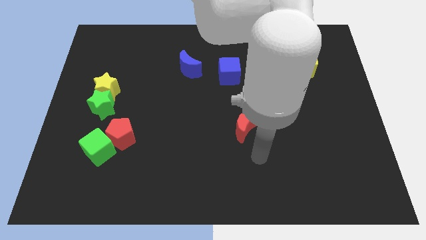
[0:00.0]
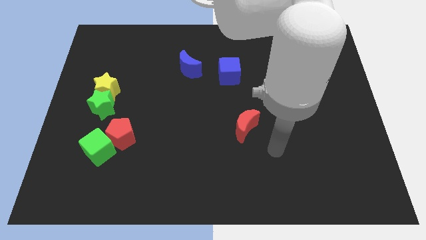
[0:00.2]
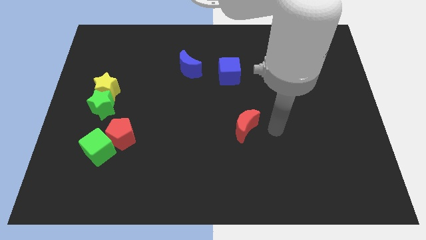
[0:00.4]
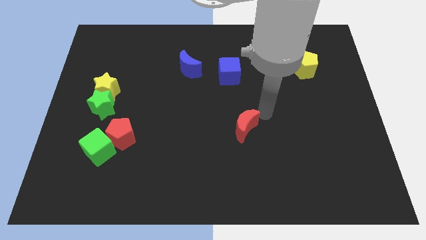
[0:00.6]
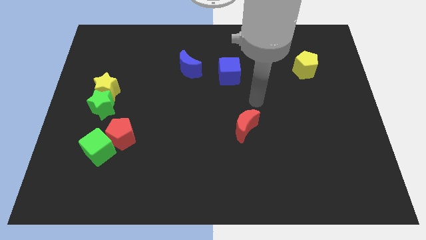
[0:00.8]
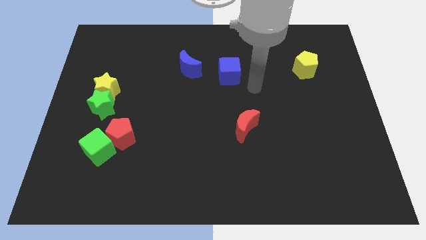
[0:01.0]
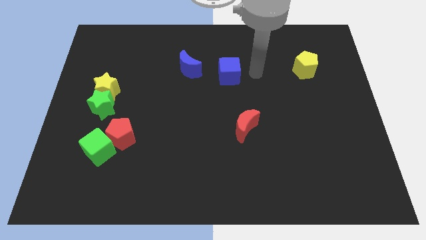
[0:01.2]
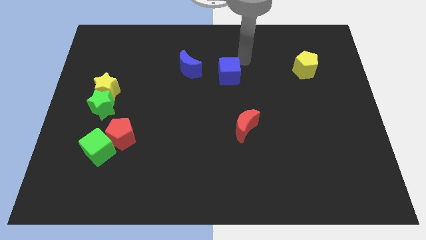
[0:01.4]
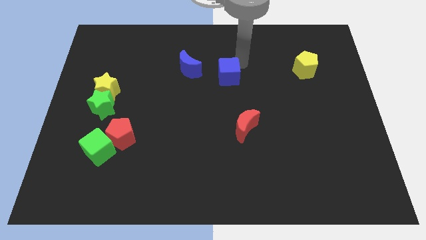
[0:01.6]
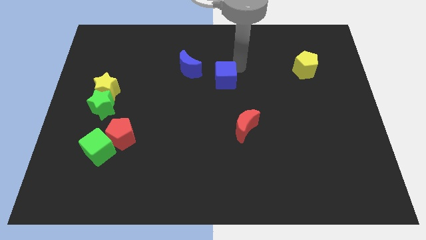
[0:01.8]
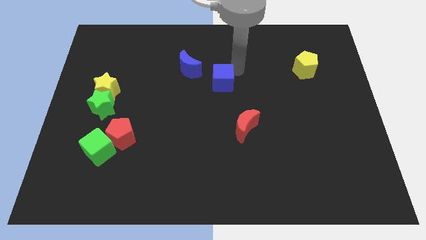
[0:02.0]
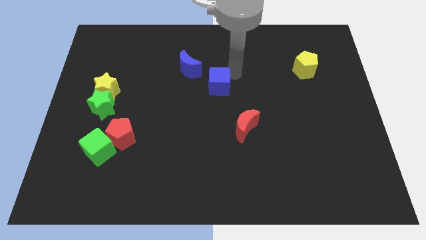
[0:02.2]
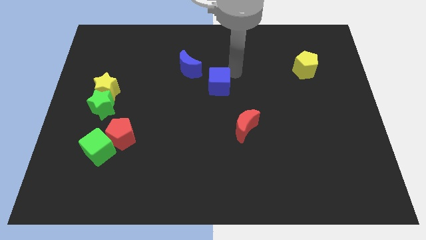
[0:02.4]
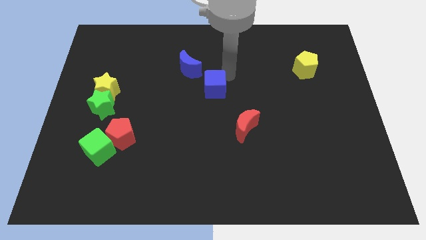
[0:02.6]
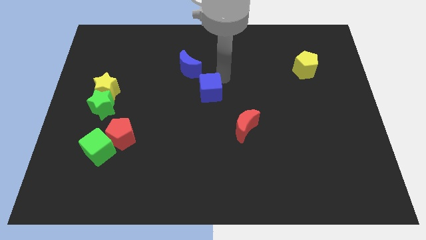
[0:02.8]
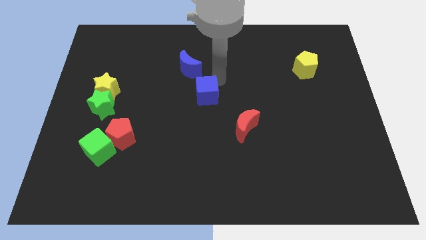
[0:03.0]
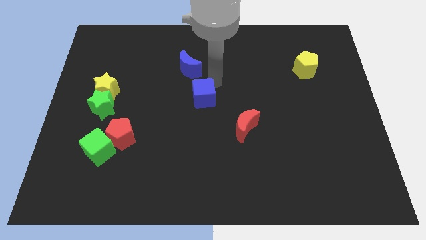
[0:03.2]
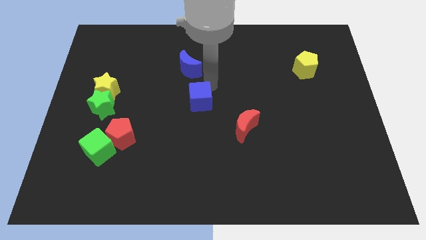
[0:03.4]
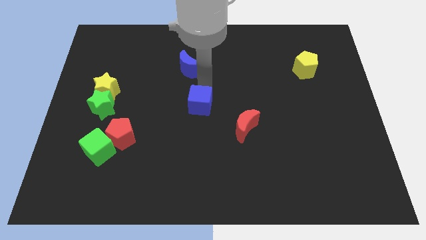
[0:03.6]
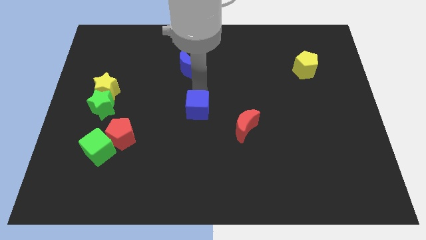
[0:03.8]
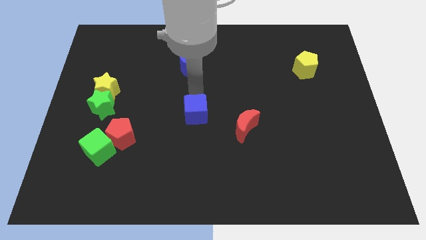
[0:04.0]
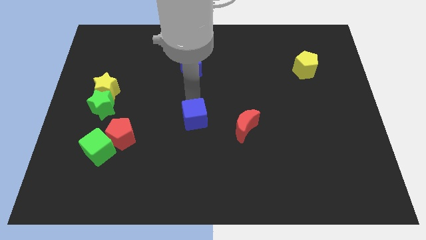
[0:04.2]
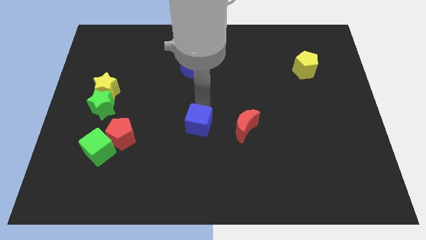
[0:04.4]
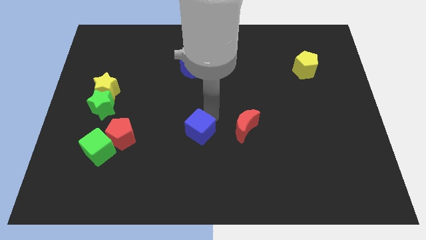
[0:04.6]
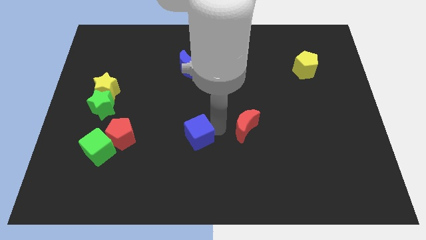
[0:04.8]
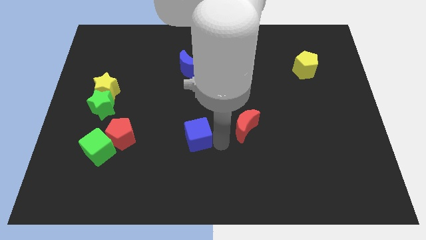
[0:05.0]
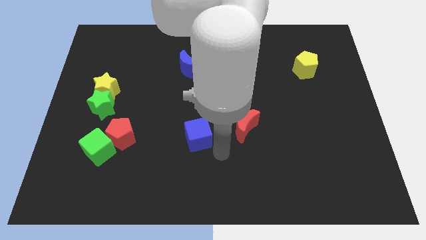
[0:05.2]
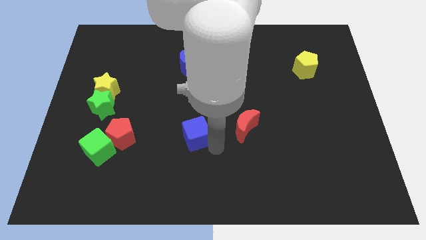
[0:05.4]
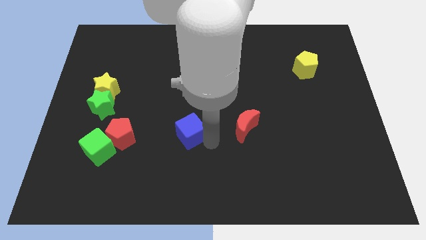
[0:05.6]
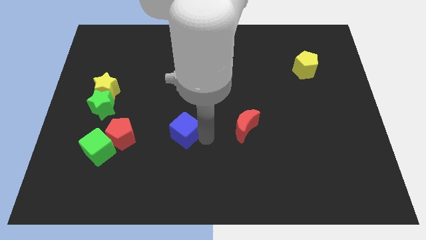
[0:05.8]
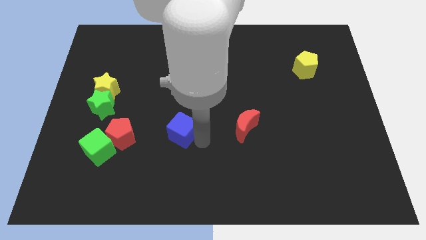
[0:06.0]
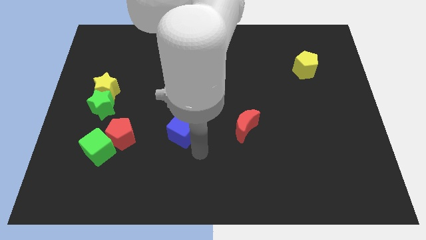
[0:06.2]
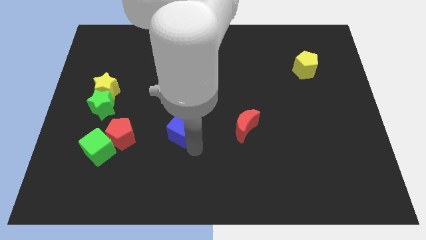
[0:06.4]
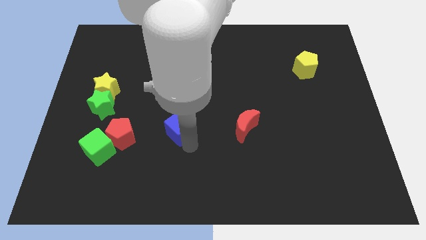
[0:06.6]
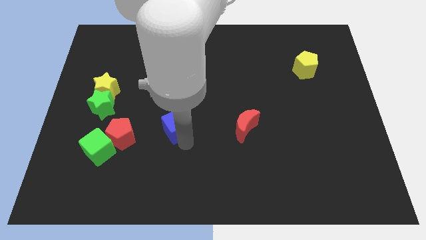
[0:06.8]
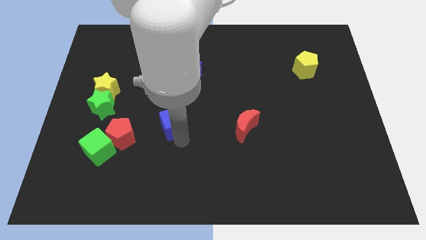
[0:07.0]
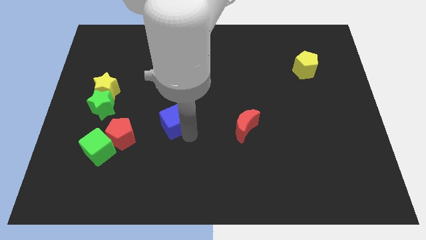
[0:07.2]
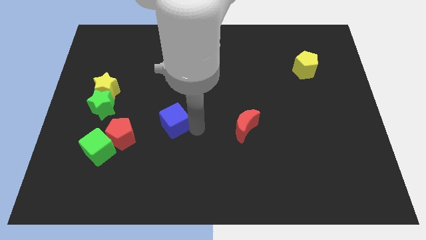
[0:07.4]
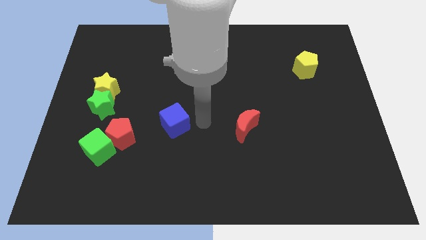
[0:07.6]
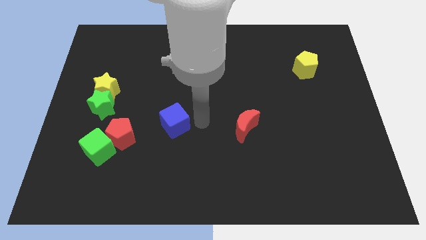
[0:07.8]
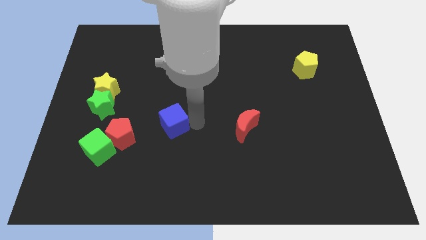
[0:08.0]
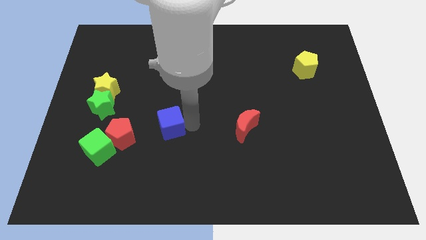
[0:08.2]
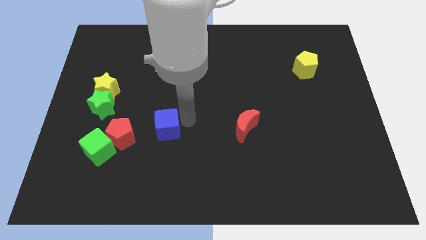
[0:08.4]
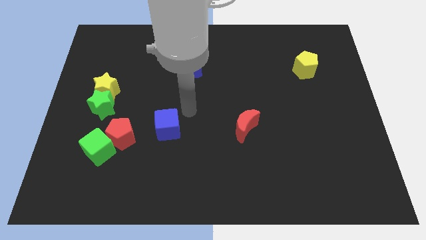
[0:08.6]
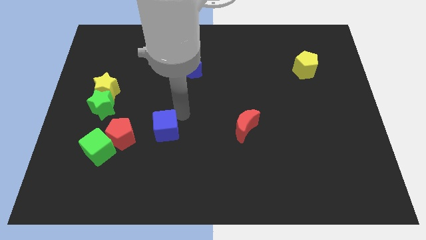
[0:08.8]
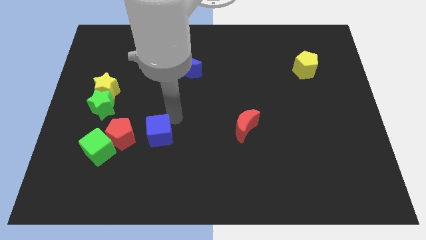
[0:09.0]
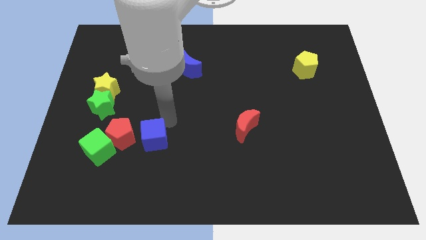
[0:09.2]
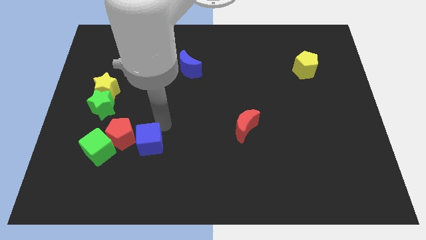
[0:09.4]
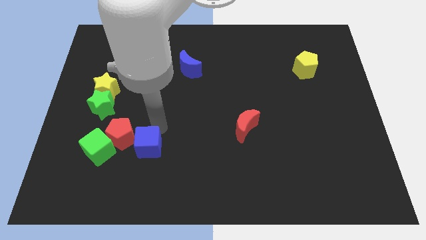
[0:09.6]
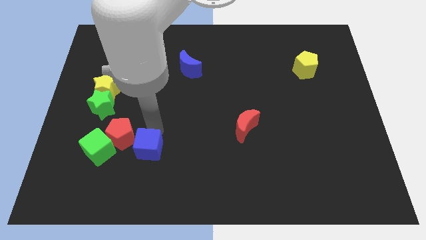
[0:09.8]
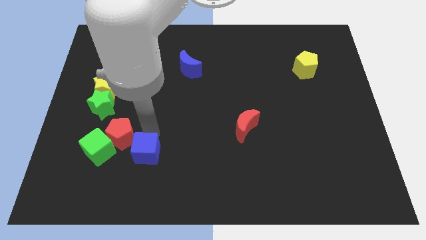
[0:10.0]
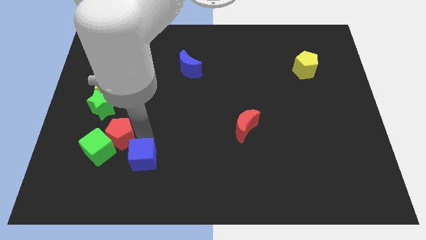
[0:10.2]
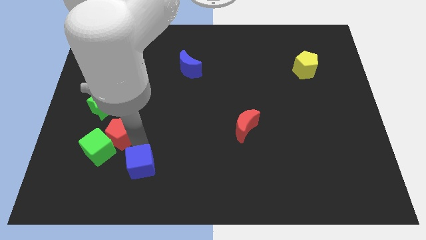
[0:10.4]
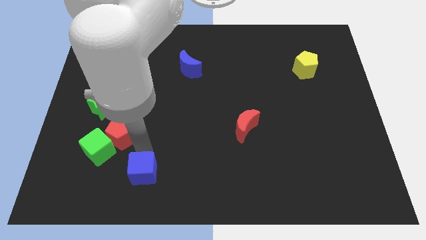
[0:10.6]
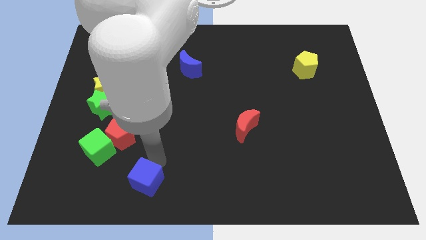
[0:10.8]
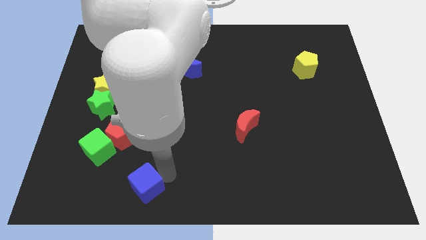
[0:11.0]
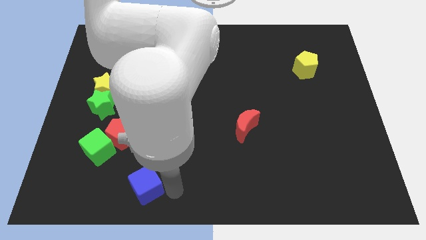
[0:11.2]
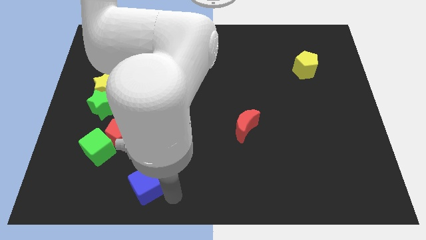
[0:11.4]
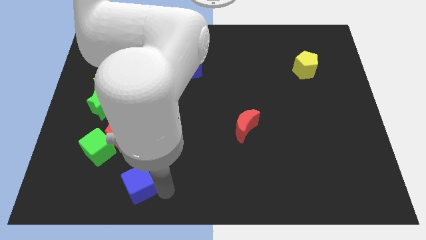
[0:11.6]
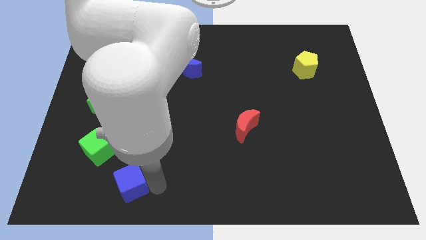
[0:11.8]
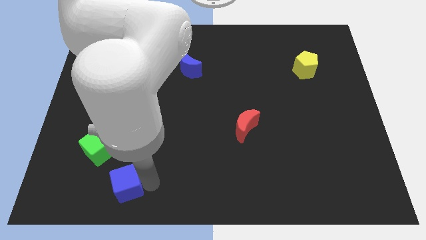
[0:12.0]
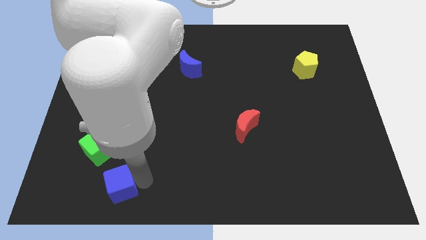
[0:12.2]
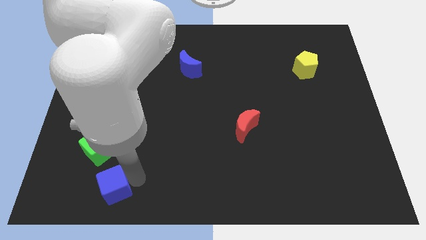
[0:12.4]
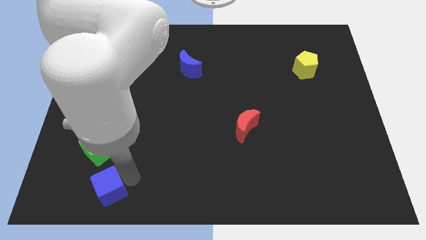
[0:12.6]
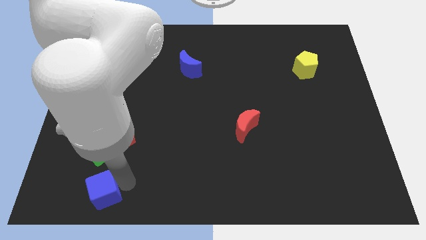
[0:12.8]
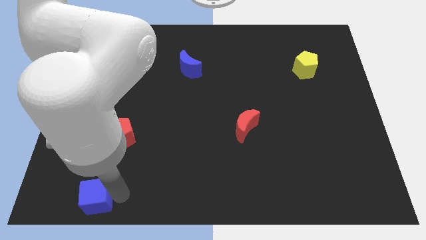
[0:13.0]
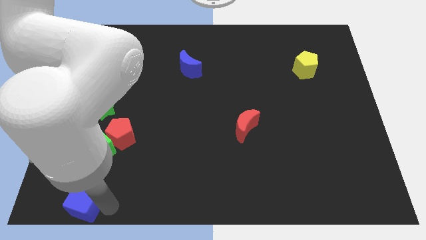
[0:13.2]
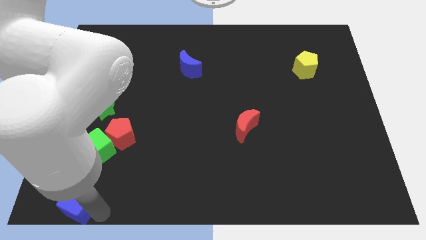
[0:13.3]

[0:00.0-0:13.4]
push the blue cube to the bottom left
